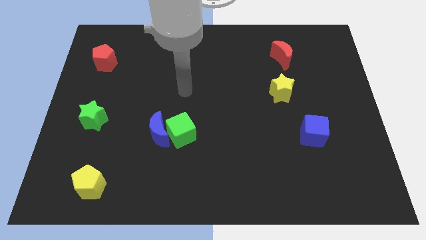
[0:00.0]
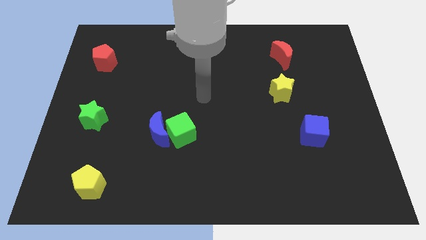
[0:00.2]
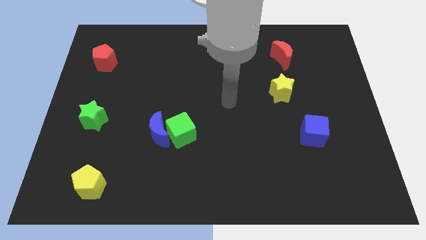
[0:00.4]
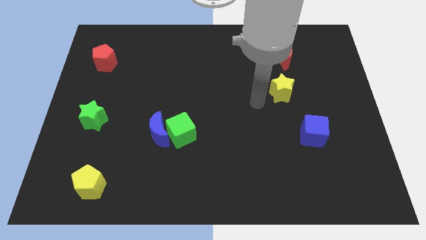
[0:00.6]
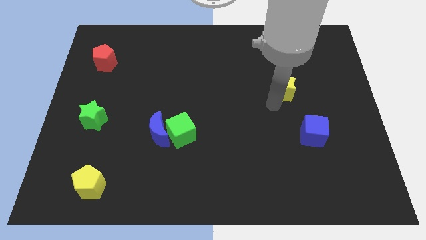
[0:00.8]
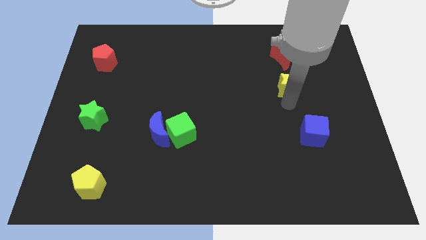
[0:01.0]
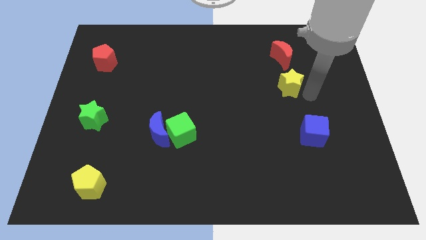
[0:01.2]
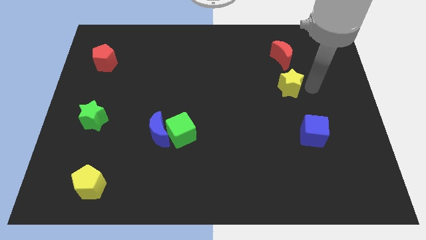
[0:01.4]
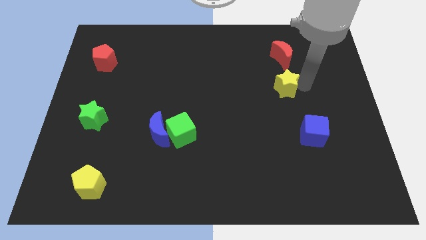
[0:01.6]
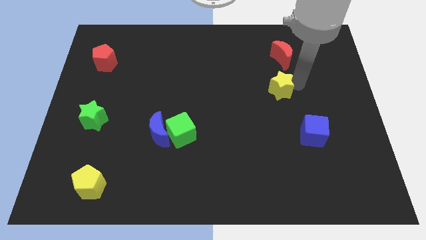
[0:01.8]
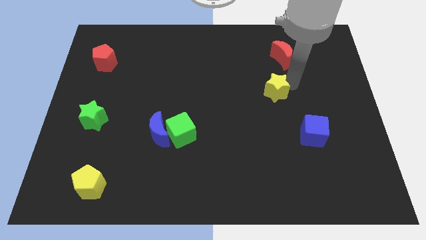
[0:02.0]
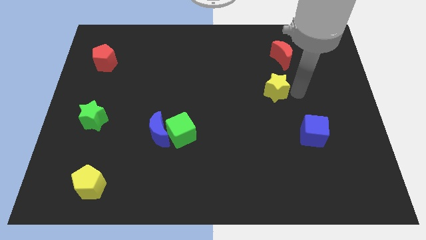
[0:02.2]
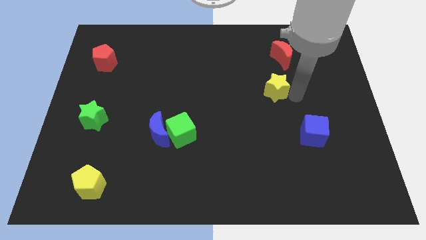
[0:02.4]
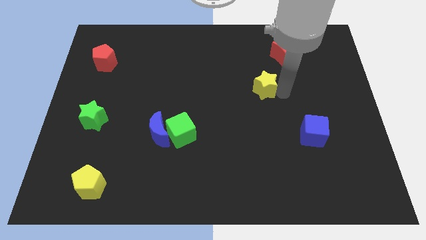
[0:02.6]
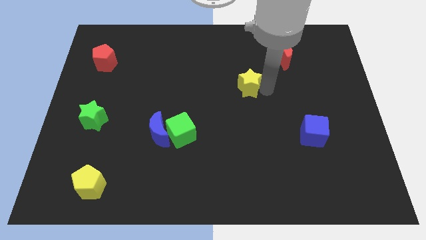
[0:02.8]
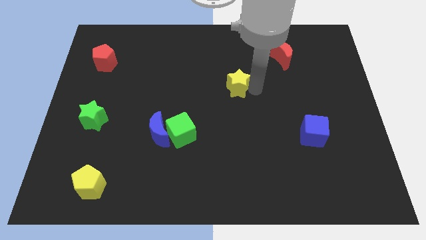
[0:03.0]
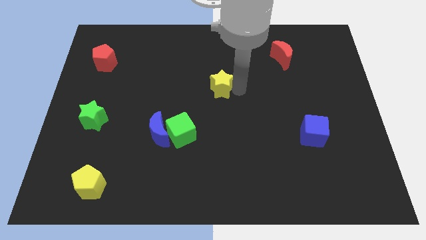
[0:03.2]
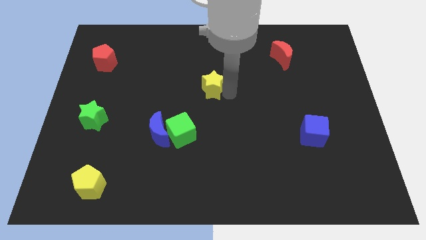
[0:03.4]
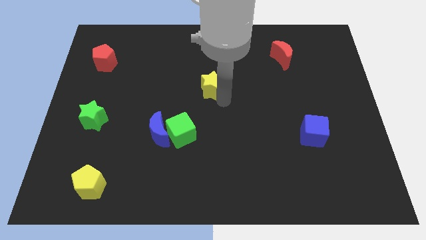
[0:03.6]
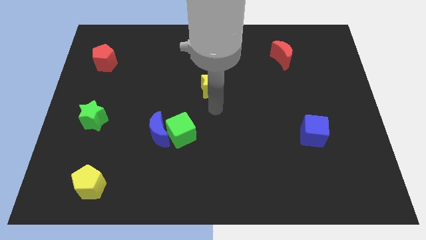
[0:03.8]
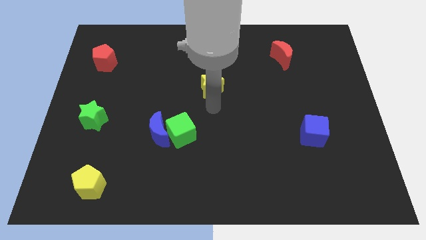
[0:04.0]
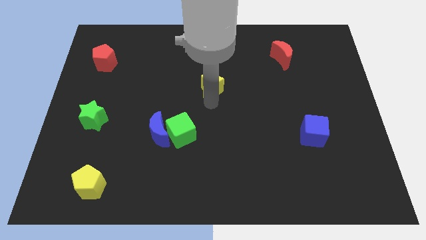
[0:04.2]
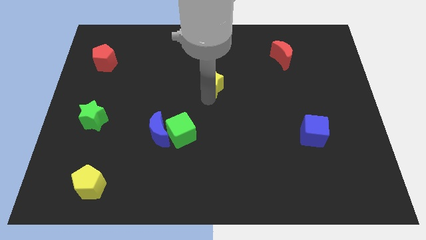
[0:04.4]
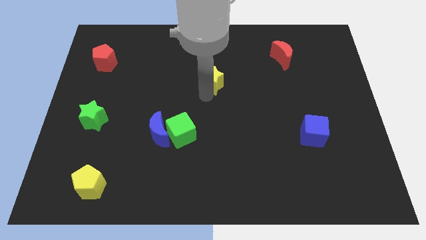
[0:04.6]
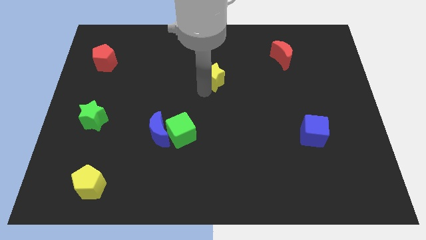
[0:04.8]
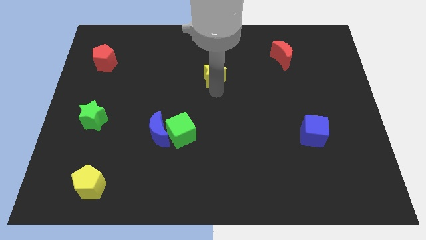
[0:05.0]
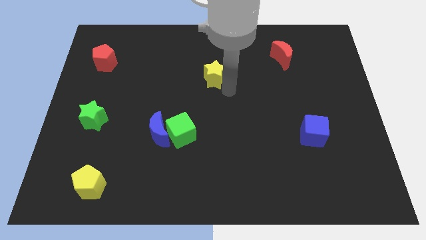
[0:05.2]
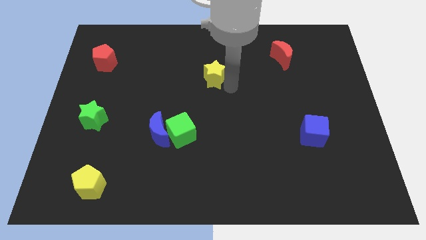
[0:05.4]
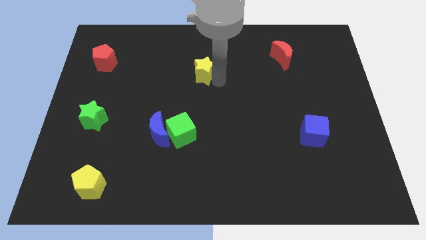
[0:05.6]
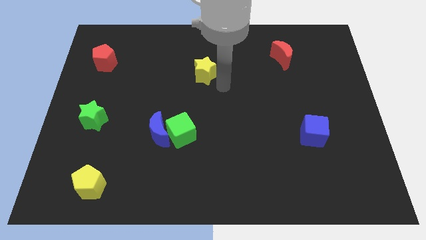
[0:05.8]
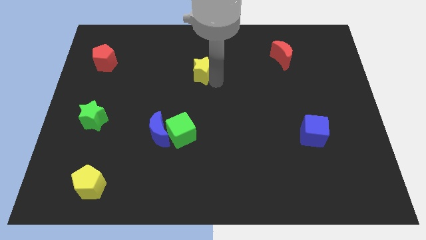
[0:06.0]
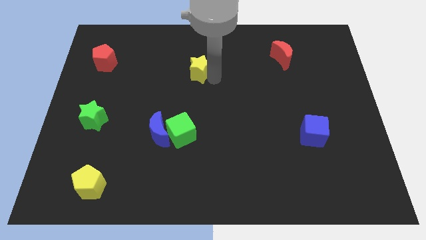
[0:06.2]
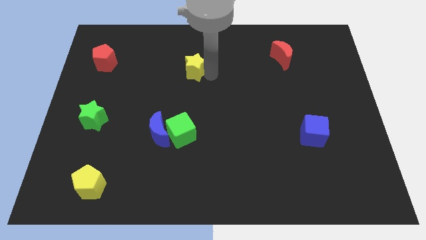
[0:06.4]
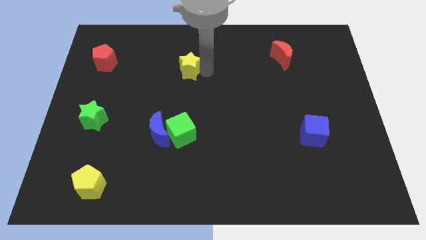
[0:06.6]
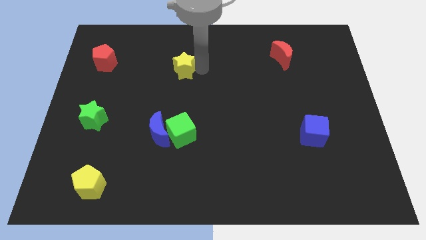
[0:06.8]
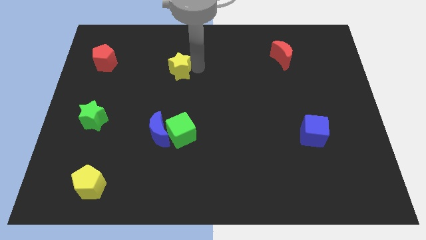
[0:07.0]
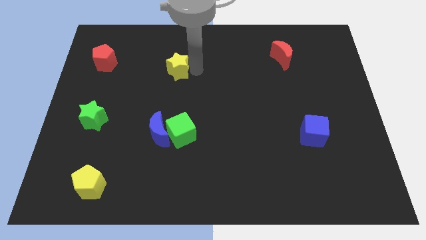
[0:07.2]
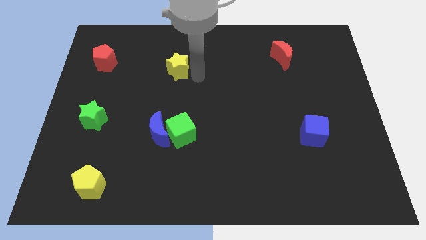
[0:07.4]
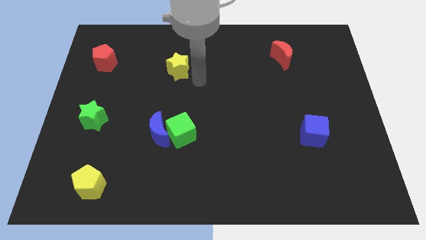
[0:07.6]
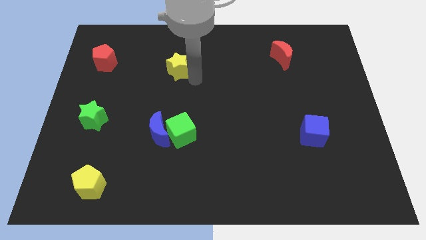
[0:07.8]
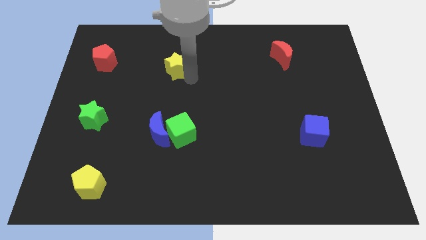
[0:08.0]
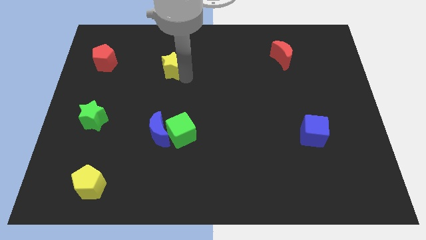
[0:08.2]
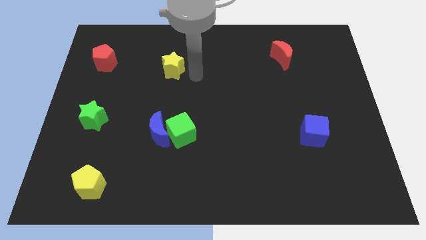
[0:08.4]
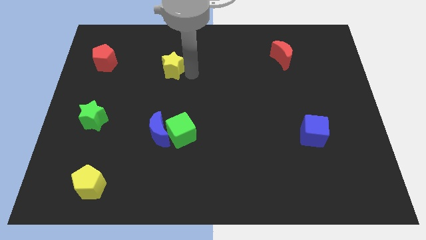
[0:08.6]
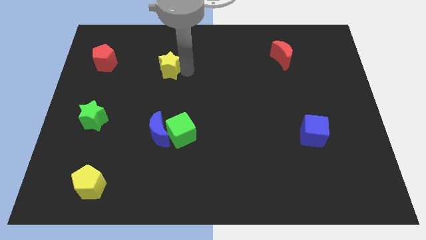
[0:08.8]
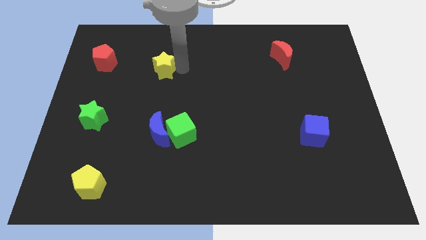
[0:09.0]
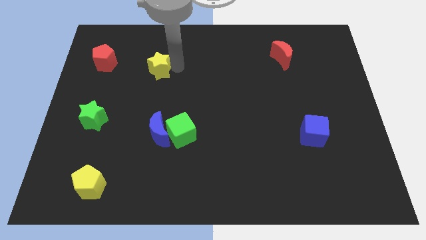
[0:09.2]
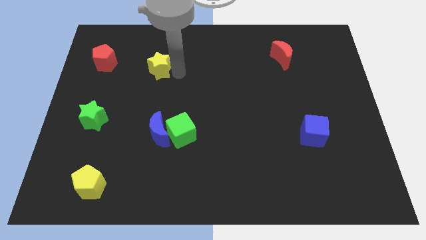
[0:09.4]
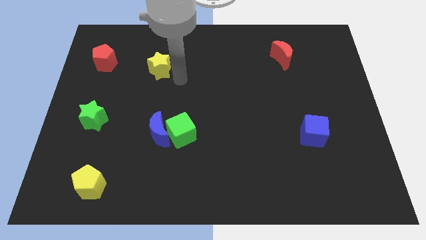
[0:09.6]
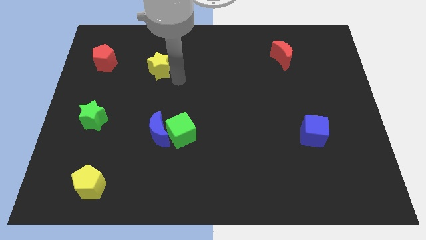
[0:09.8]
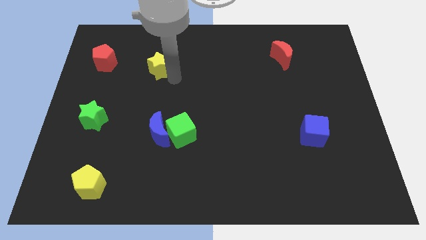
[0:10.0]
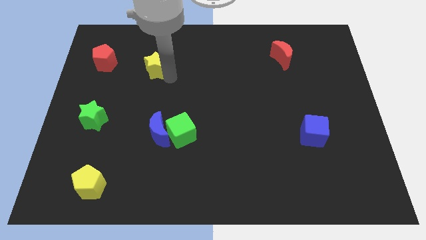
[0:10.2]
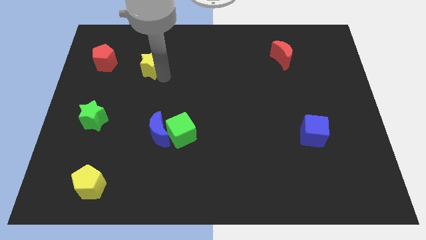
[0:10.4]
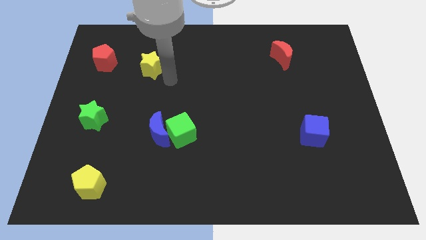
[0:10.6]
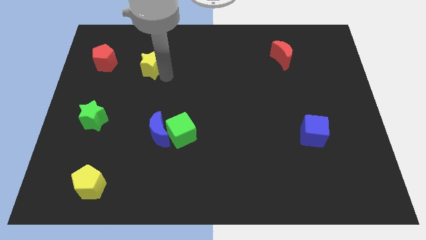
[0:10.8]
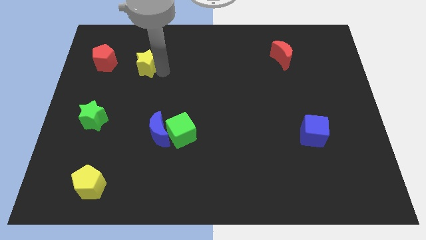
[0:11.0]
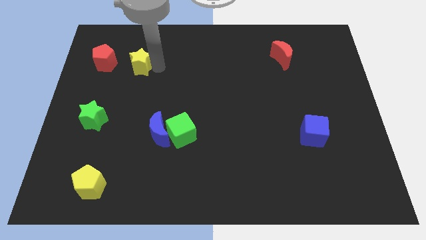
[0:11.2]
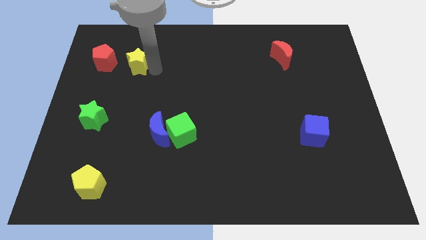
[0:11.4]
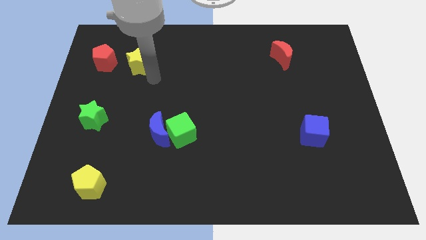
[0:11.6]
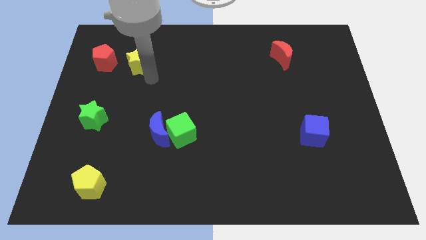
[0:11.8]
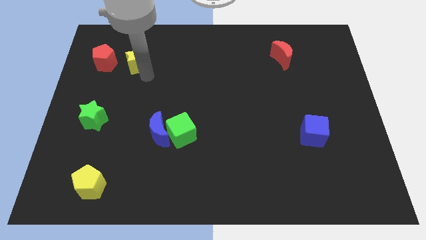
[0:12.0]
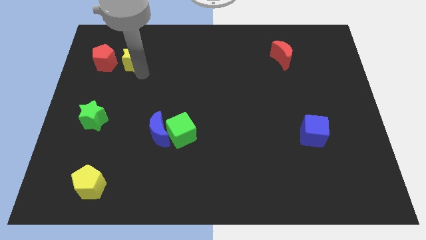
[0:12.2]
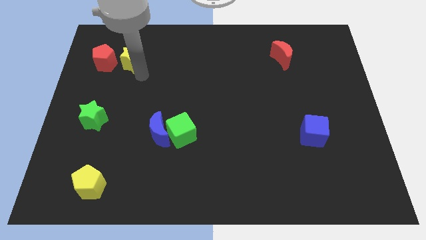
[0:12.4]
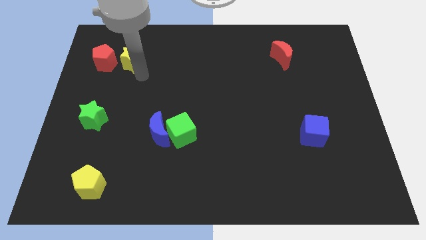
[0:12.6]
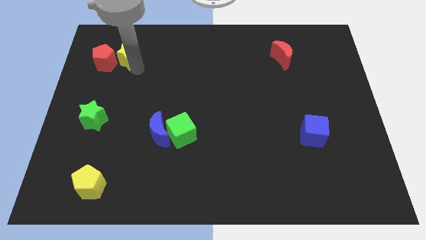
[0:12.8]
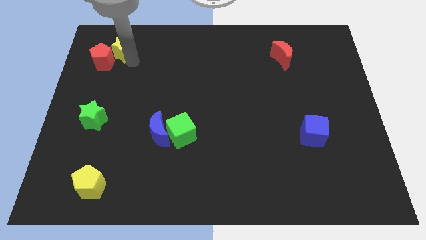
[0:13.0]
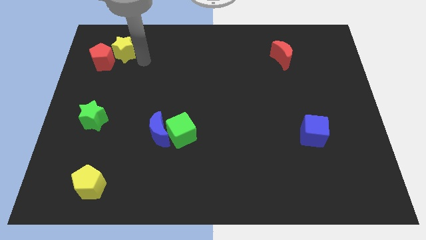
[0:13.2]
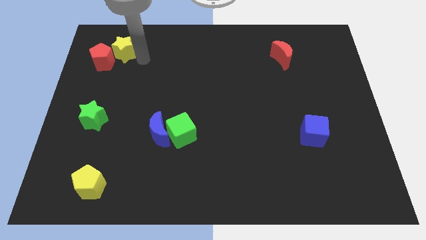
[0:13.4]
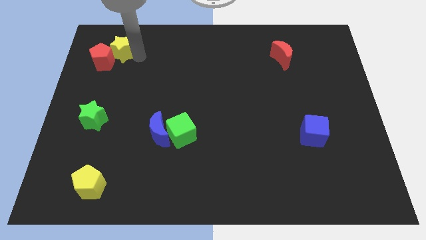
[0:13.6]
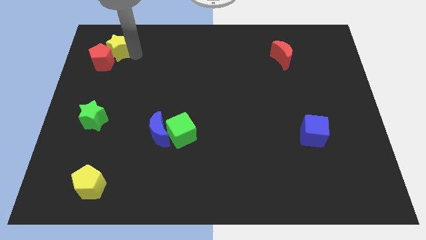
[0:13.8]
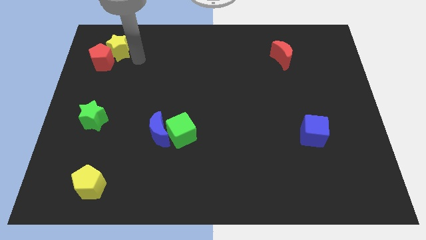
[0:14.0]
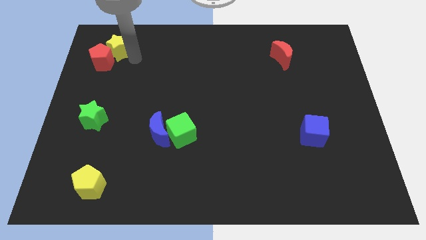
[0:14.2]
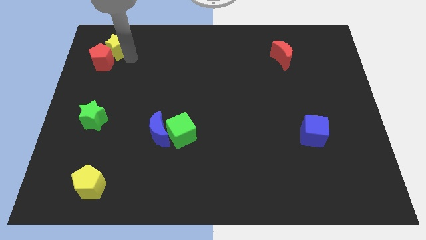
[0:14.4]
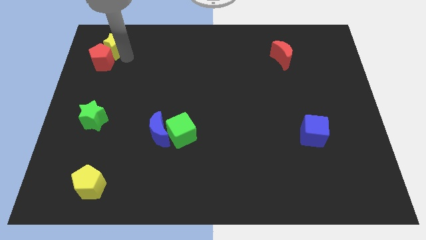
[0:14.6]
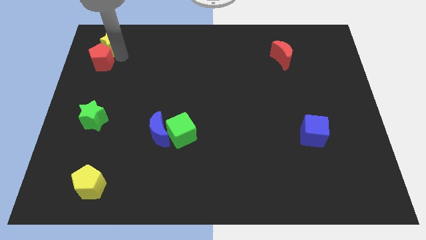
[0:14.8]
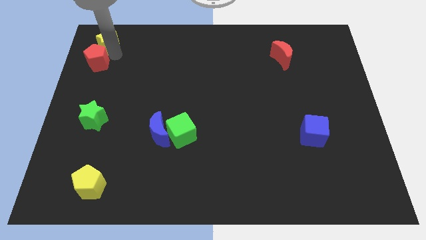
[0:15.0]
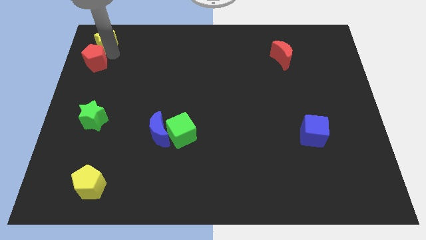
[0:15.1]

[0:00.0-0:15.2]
put the yellow star to the top left corner
